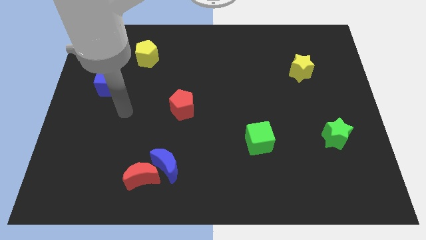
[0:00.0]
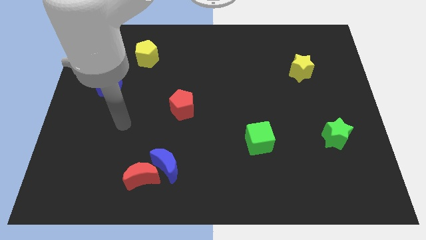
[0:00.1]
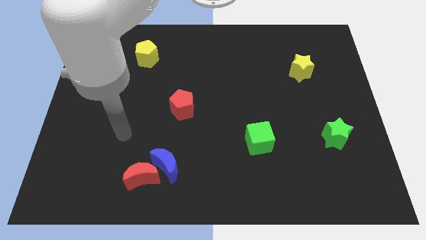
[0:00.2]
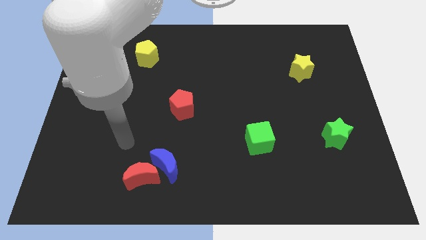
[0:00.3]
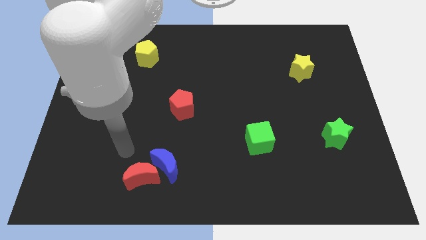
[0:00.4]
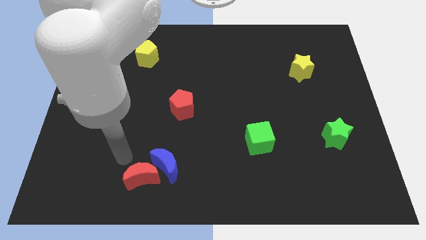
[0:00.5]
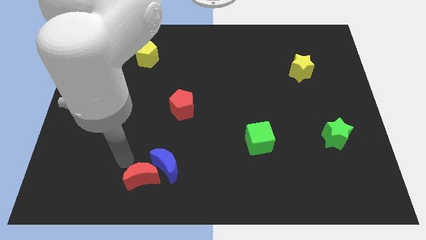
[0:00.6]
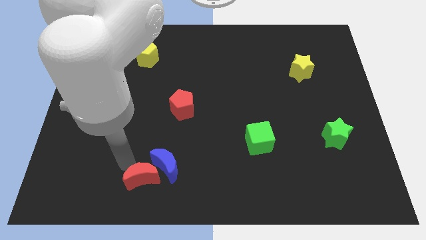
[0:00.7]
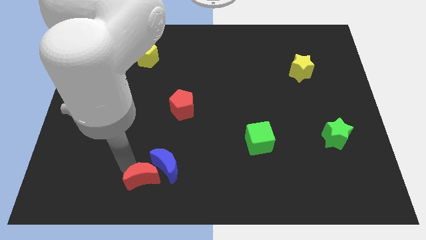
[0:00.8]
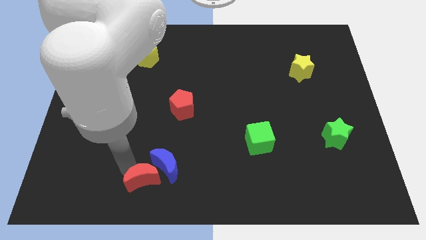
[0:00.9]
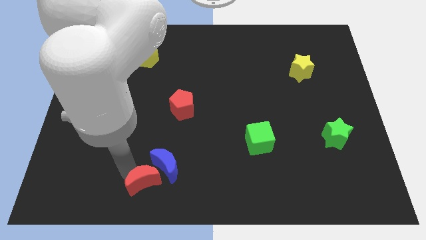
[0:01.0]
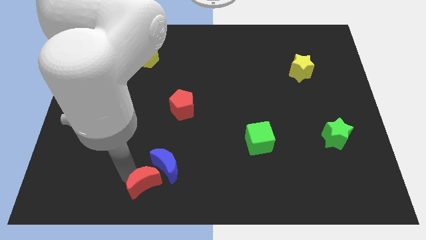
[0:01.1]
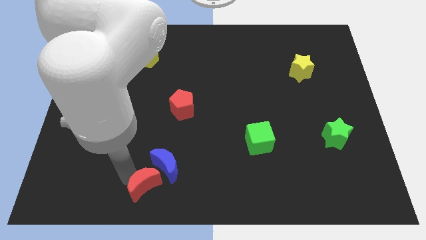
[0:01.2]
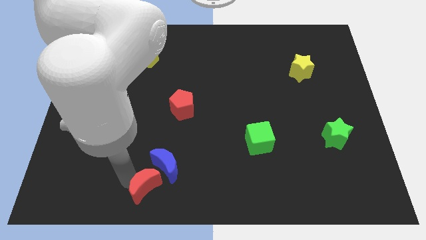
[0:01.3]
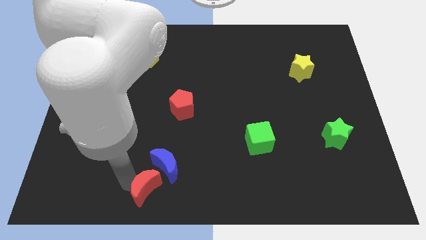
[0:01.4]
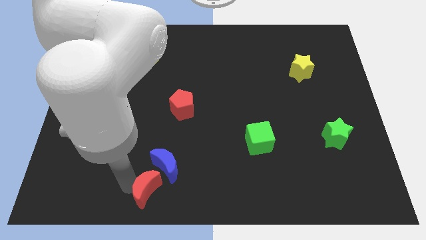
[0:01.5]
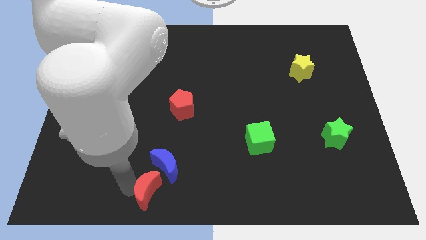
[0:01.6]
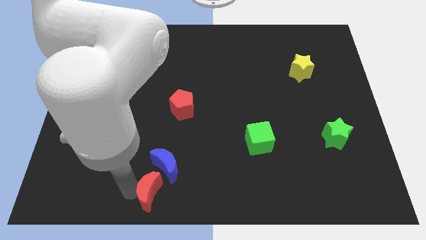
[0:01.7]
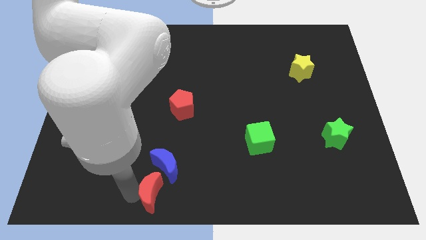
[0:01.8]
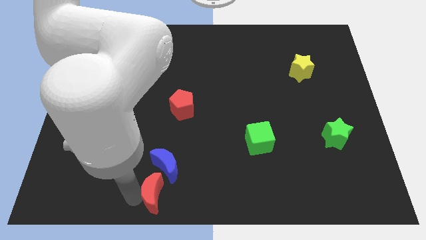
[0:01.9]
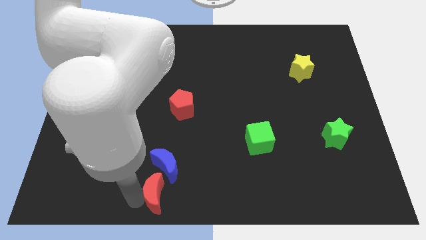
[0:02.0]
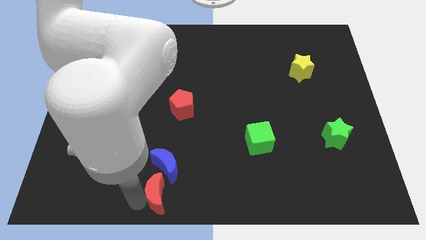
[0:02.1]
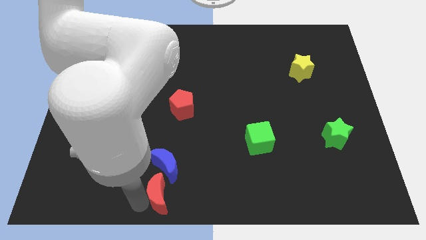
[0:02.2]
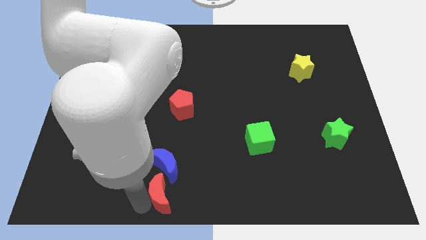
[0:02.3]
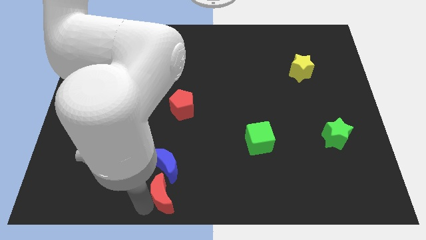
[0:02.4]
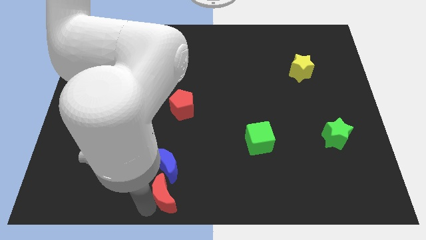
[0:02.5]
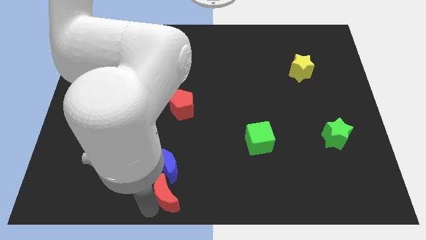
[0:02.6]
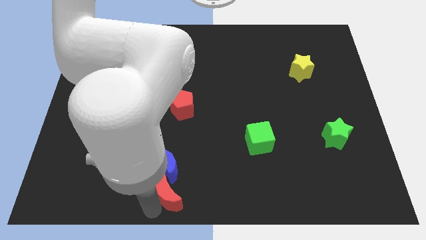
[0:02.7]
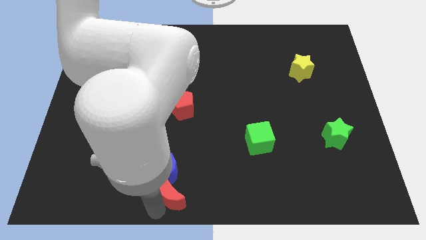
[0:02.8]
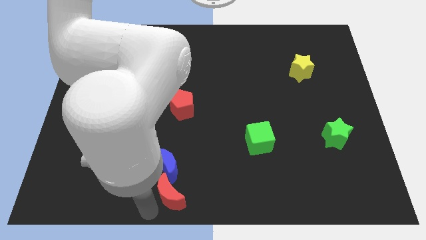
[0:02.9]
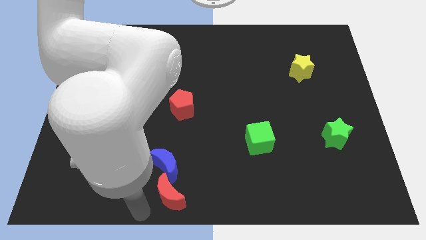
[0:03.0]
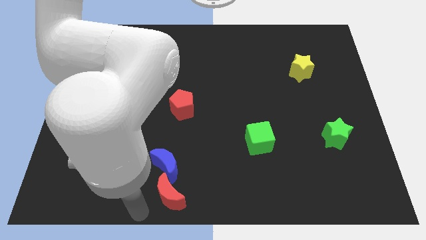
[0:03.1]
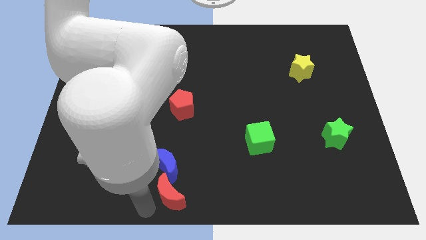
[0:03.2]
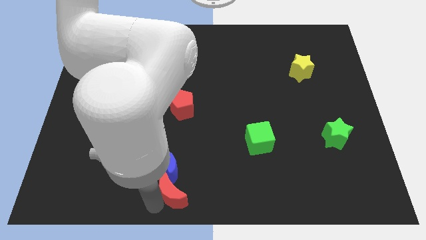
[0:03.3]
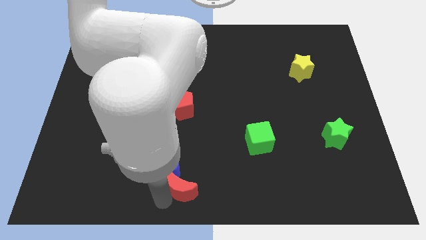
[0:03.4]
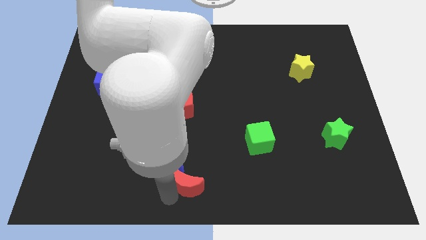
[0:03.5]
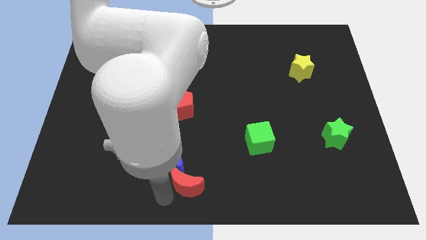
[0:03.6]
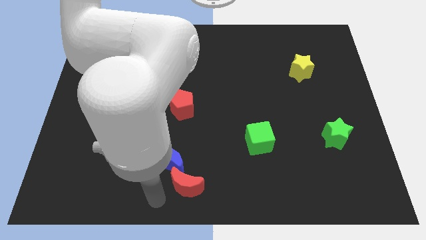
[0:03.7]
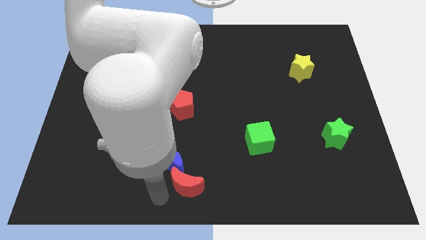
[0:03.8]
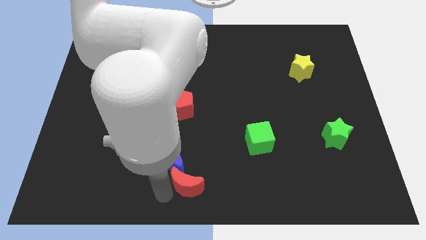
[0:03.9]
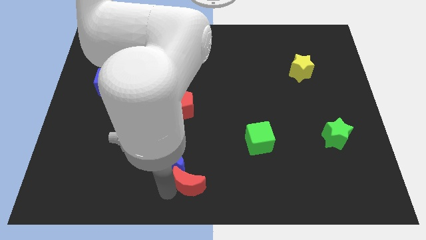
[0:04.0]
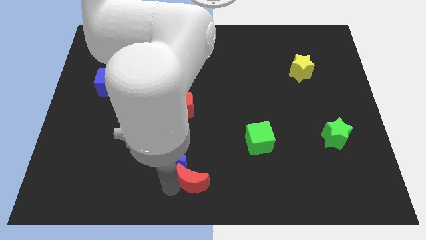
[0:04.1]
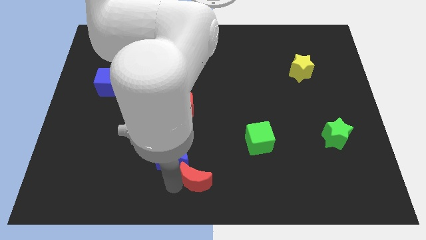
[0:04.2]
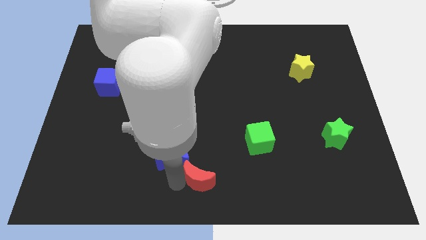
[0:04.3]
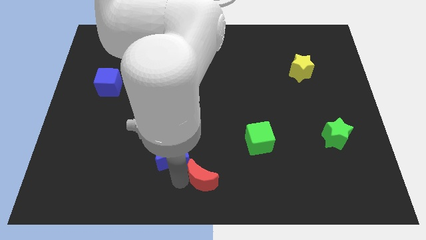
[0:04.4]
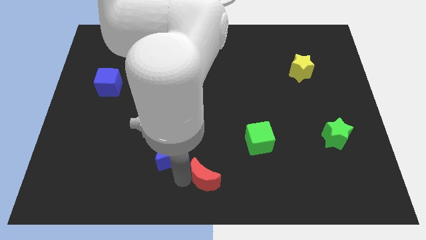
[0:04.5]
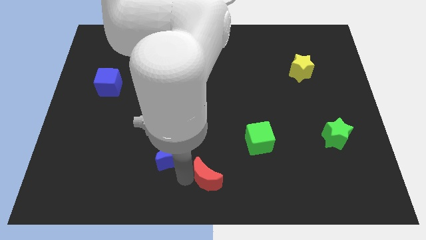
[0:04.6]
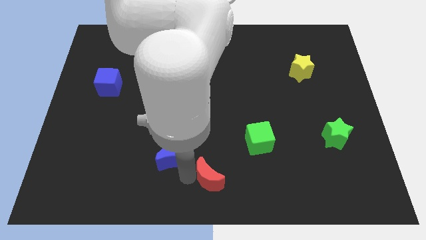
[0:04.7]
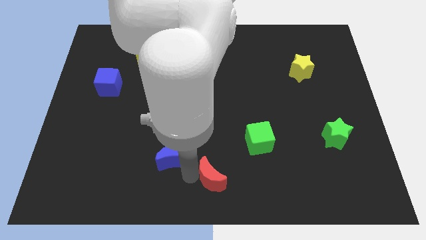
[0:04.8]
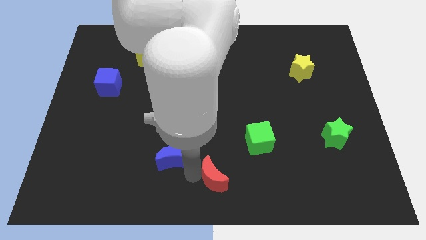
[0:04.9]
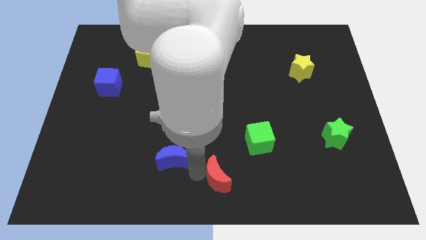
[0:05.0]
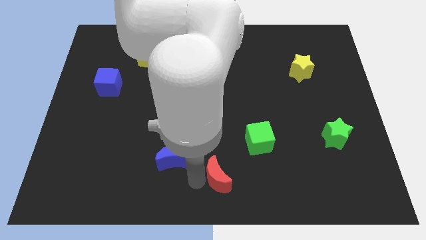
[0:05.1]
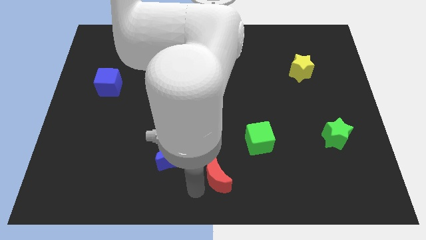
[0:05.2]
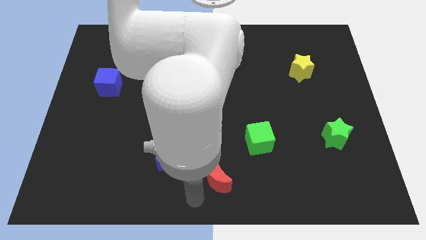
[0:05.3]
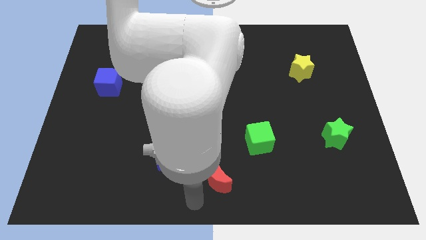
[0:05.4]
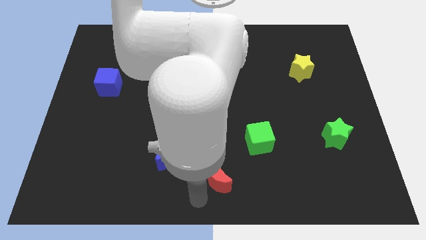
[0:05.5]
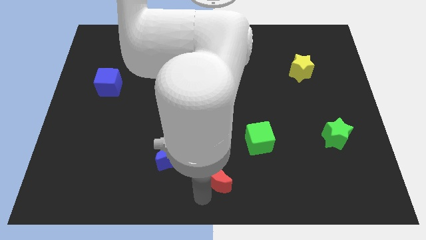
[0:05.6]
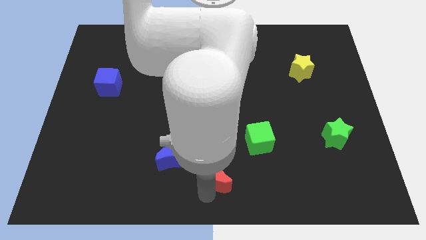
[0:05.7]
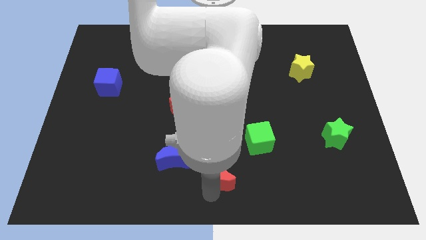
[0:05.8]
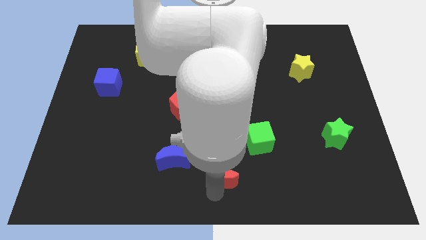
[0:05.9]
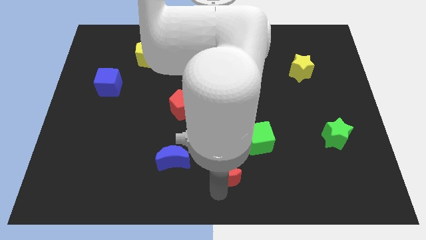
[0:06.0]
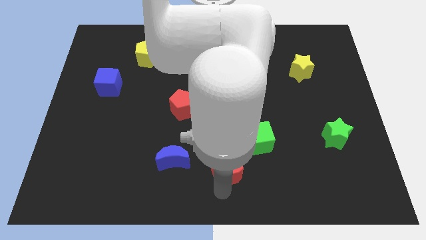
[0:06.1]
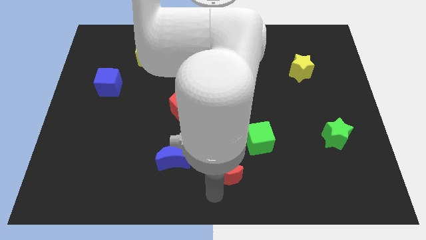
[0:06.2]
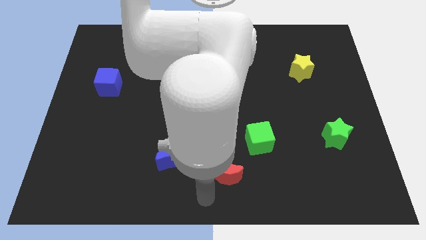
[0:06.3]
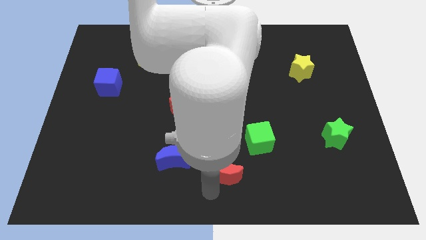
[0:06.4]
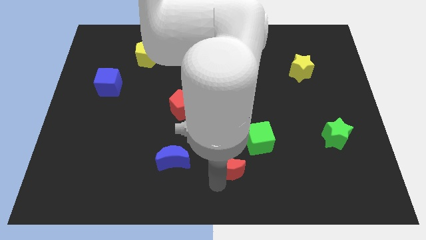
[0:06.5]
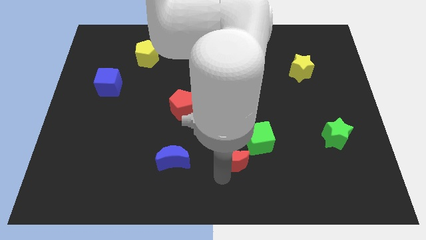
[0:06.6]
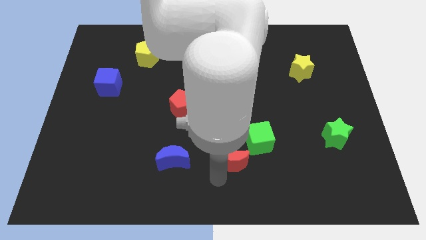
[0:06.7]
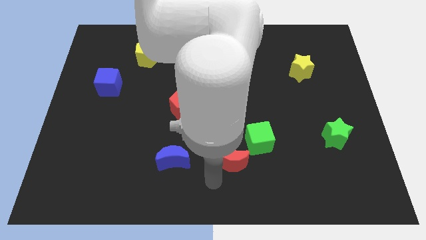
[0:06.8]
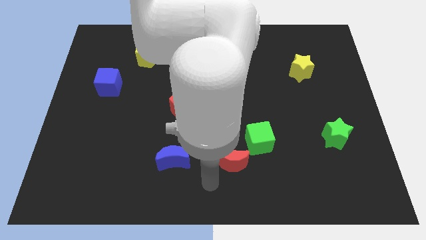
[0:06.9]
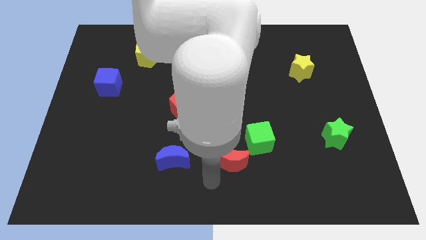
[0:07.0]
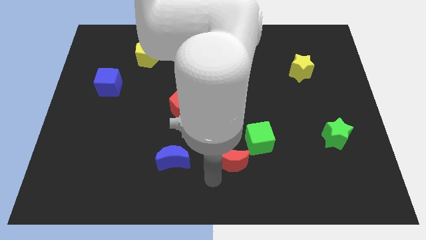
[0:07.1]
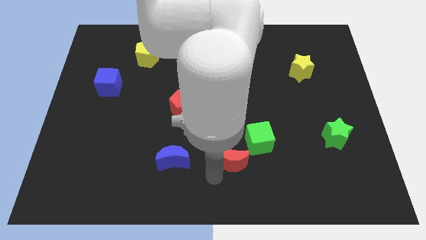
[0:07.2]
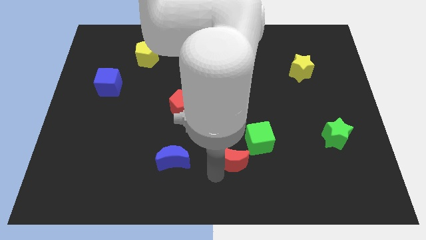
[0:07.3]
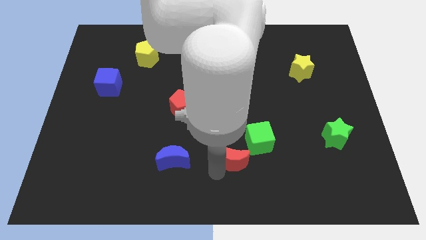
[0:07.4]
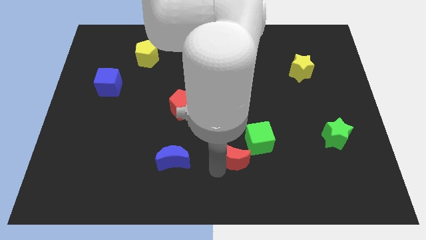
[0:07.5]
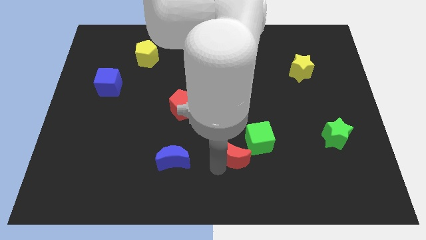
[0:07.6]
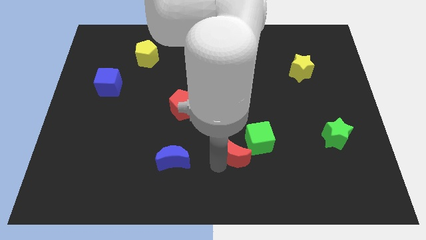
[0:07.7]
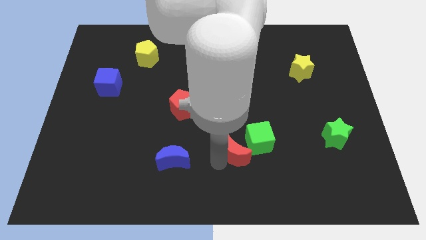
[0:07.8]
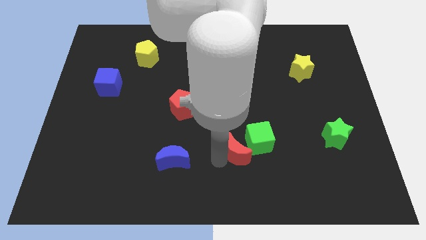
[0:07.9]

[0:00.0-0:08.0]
move the red moon next to the green cube
